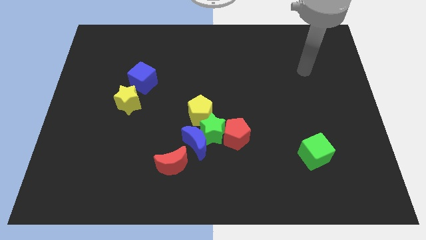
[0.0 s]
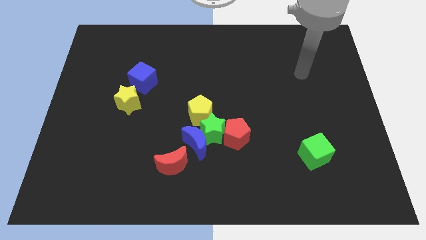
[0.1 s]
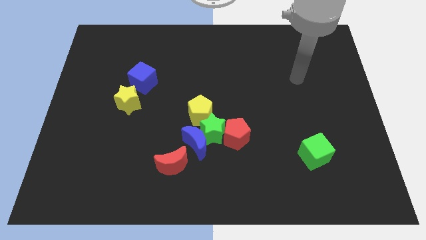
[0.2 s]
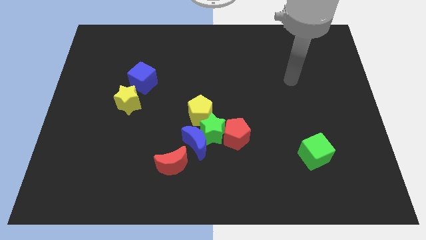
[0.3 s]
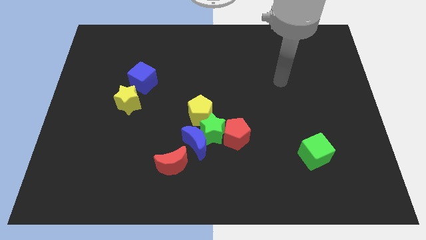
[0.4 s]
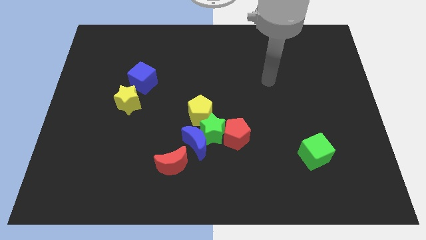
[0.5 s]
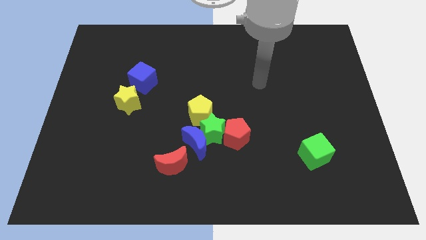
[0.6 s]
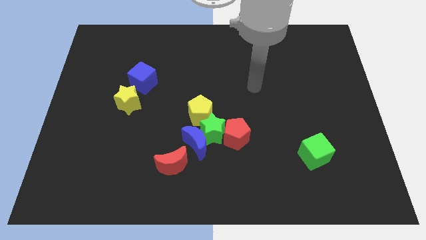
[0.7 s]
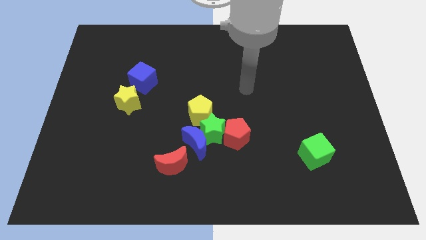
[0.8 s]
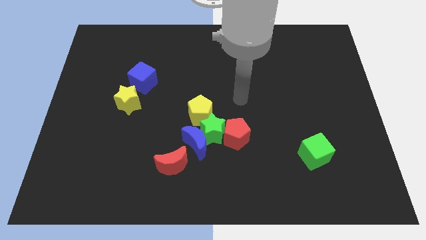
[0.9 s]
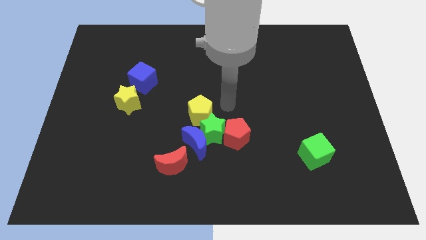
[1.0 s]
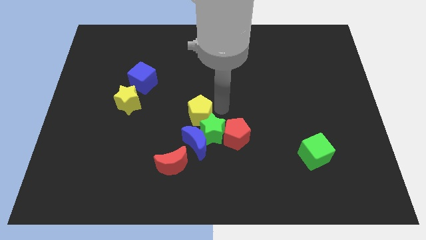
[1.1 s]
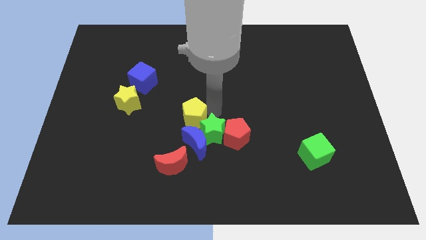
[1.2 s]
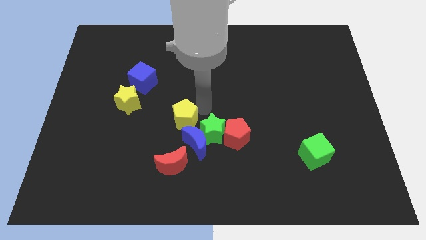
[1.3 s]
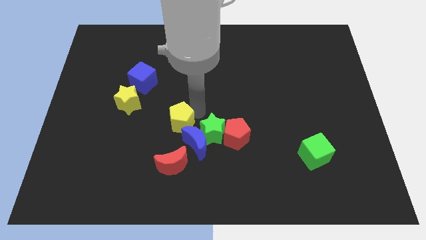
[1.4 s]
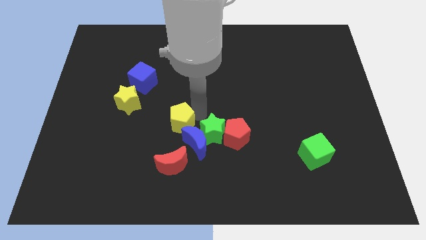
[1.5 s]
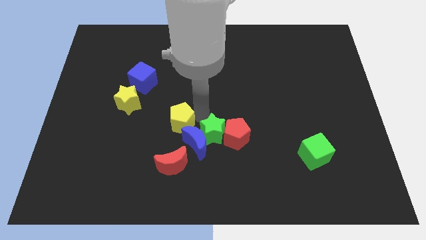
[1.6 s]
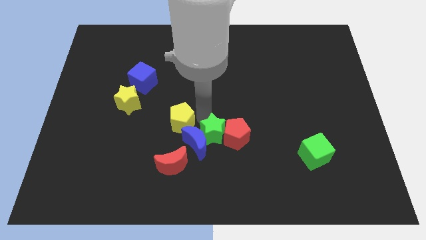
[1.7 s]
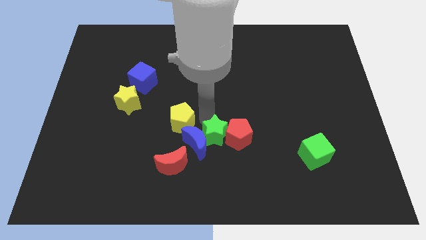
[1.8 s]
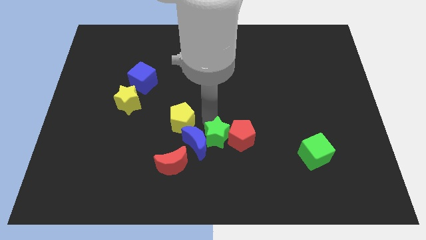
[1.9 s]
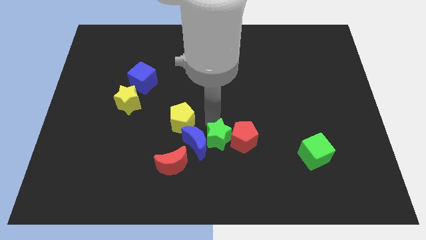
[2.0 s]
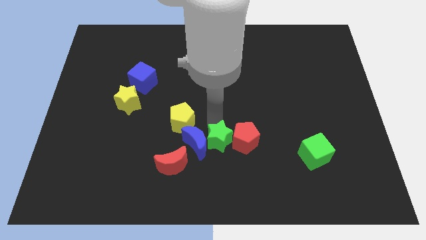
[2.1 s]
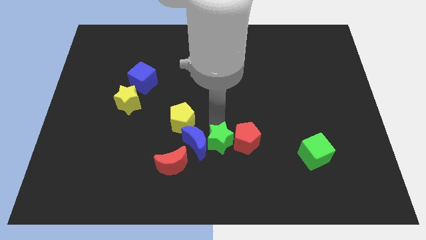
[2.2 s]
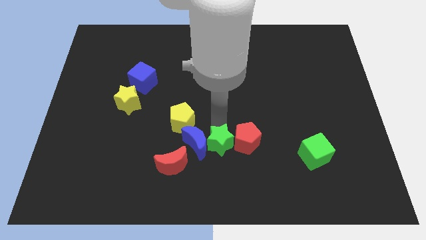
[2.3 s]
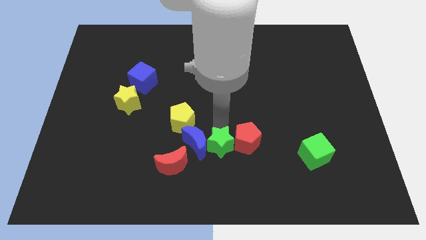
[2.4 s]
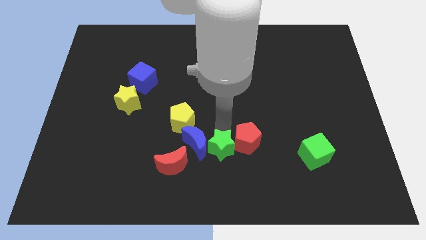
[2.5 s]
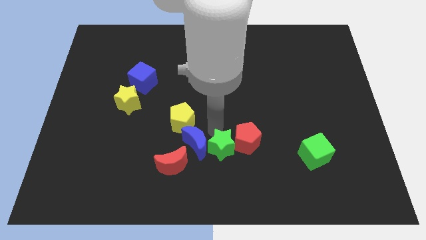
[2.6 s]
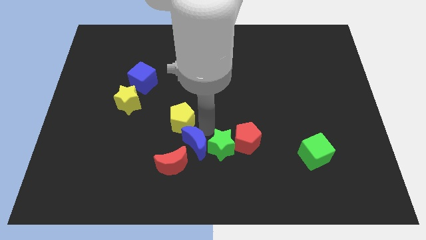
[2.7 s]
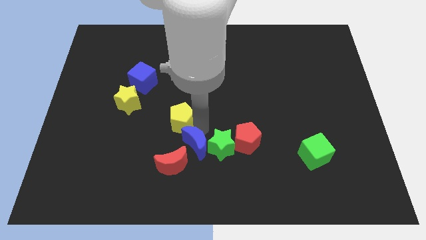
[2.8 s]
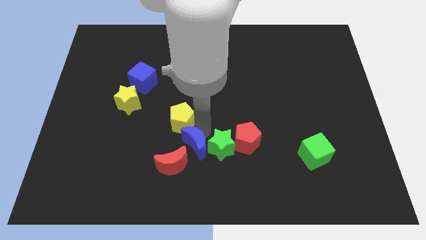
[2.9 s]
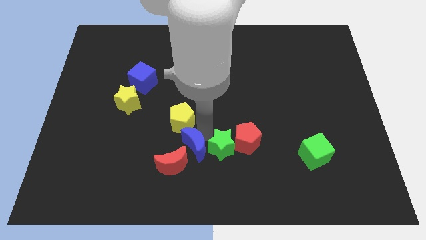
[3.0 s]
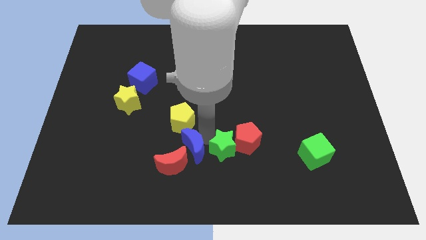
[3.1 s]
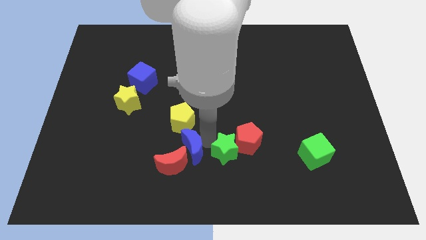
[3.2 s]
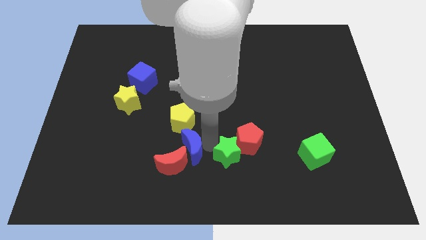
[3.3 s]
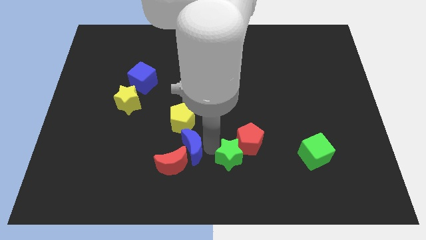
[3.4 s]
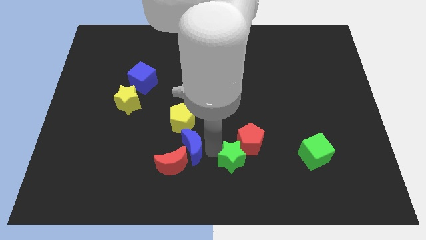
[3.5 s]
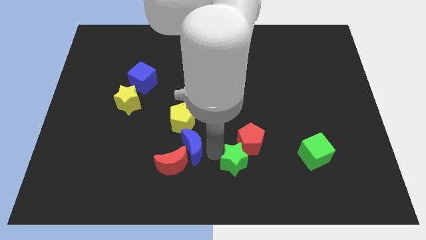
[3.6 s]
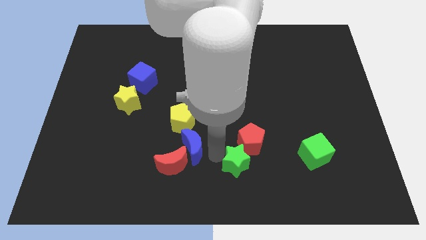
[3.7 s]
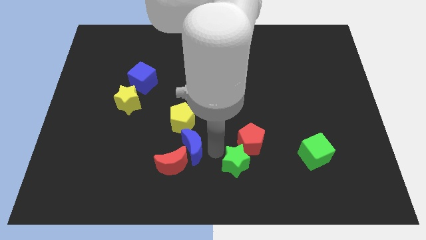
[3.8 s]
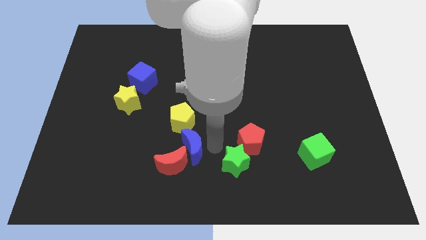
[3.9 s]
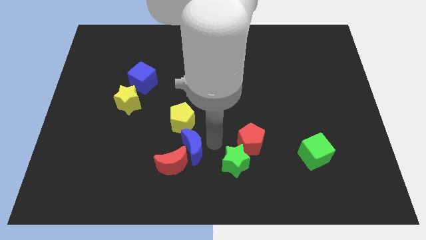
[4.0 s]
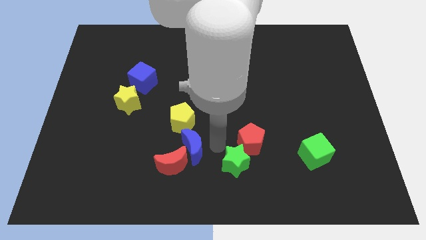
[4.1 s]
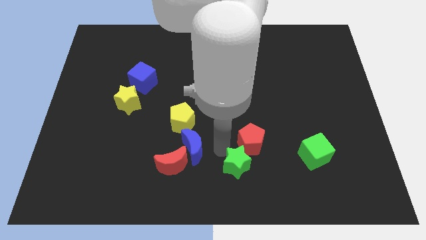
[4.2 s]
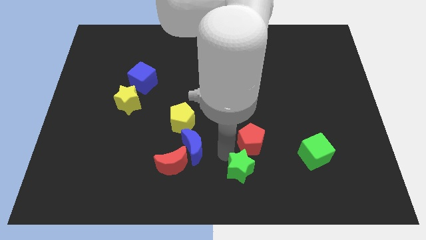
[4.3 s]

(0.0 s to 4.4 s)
pull the green star apart from the blue moon, red pentagon, and yellow pentagon

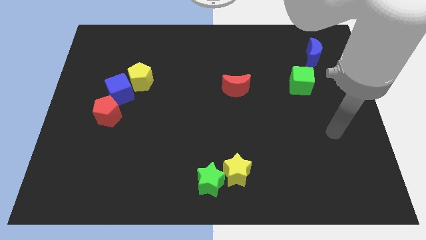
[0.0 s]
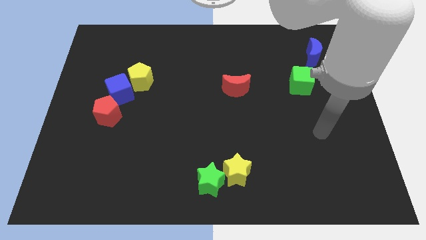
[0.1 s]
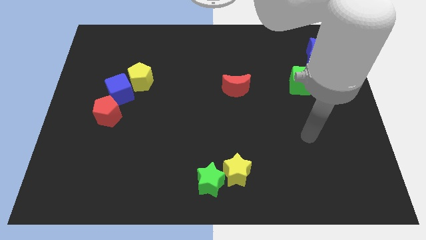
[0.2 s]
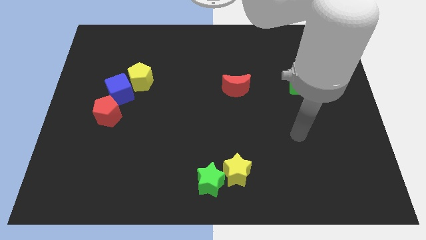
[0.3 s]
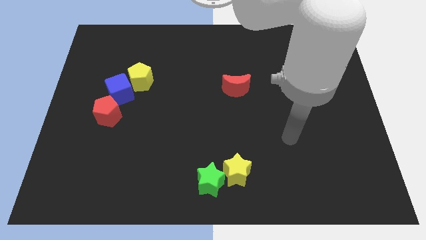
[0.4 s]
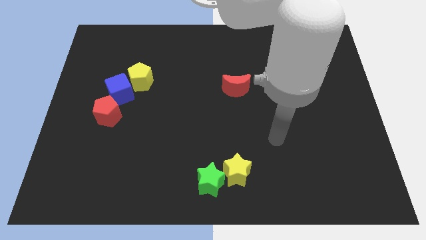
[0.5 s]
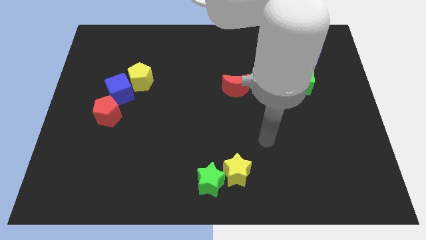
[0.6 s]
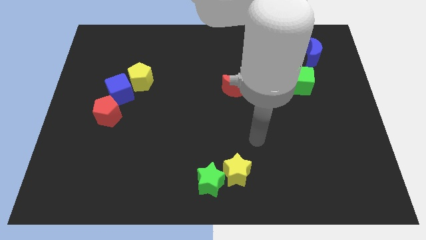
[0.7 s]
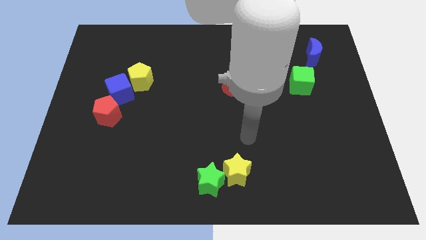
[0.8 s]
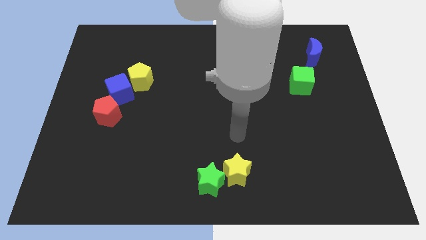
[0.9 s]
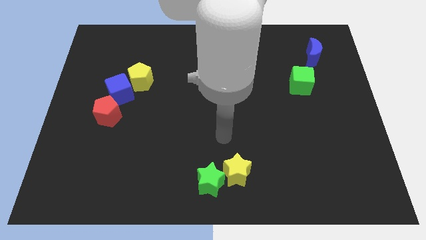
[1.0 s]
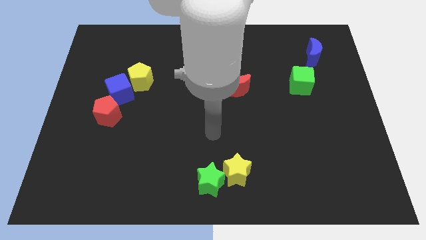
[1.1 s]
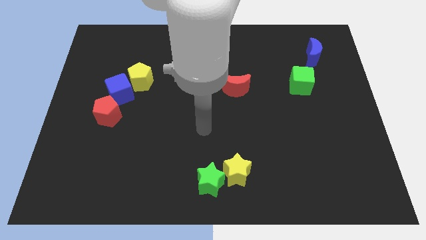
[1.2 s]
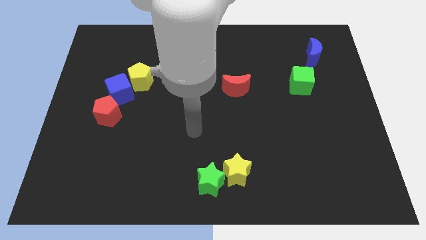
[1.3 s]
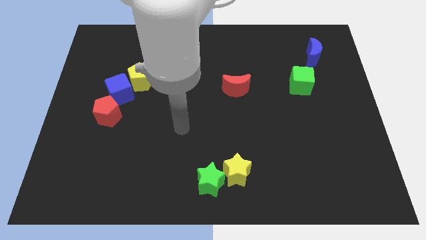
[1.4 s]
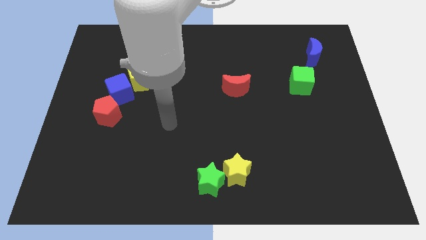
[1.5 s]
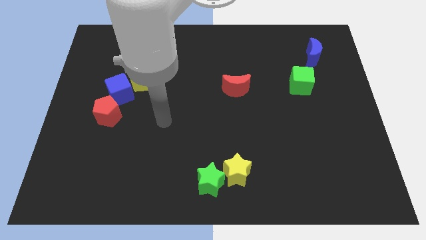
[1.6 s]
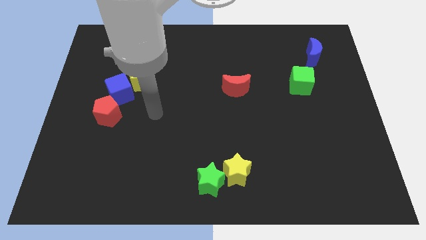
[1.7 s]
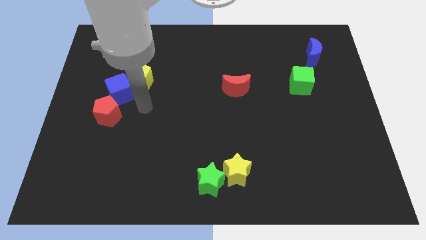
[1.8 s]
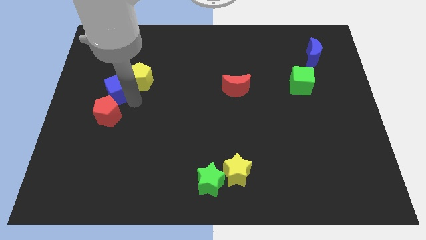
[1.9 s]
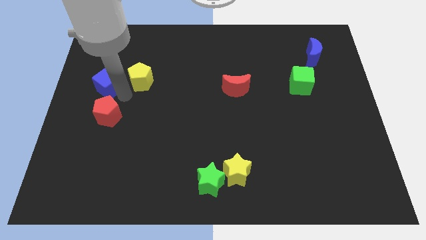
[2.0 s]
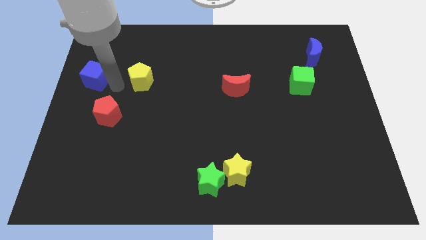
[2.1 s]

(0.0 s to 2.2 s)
pull the yellow pentagon apart from the blue cube

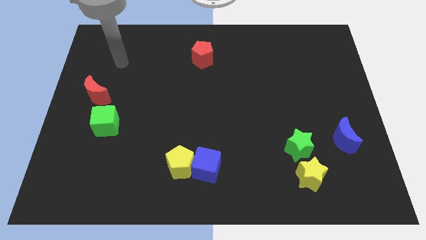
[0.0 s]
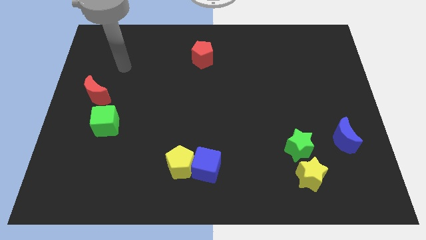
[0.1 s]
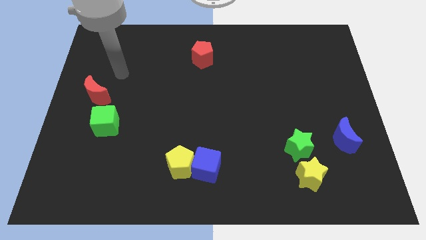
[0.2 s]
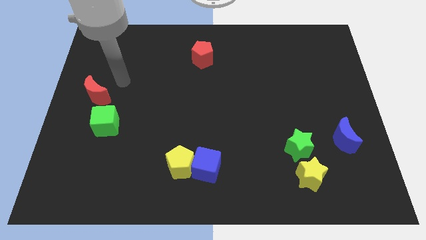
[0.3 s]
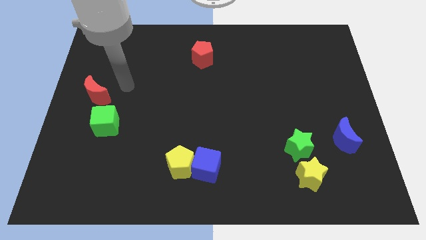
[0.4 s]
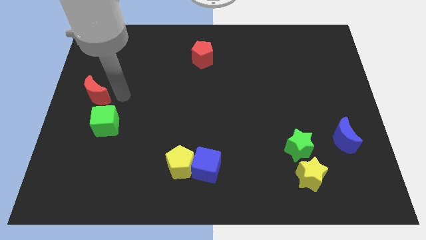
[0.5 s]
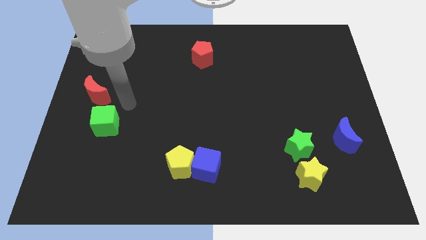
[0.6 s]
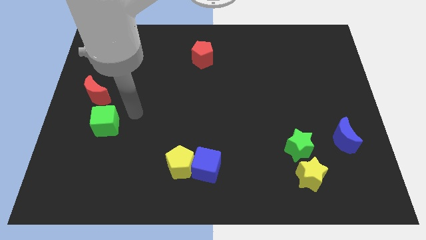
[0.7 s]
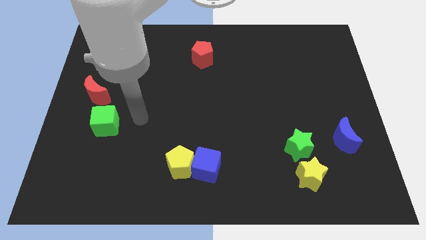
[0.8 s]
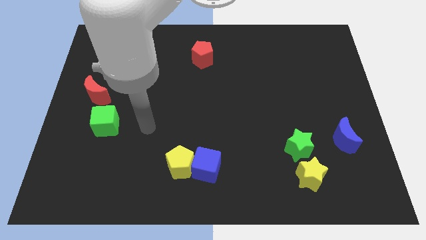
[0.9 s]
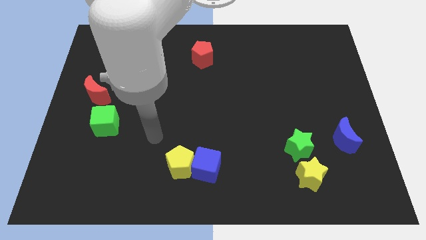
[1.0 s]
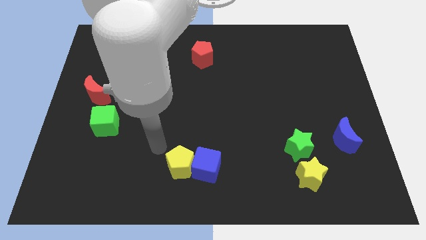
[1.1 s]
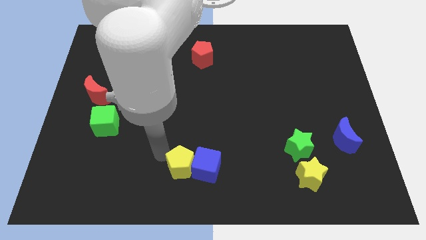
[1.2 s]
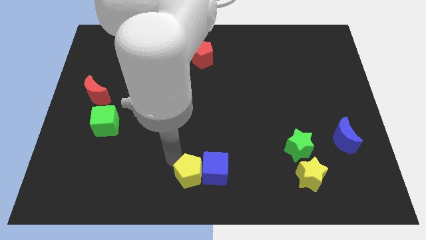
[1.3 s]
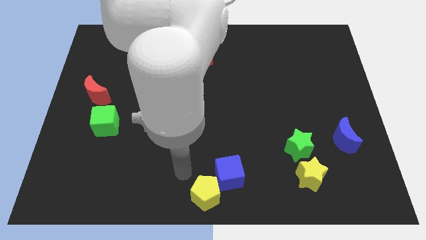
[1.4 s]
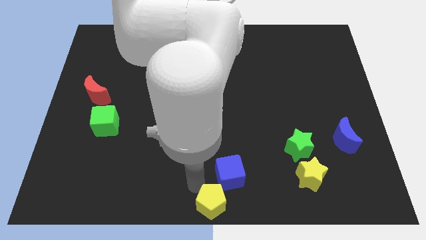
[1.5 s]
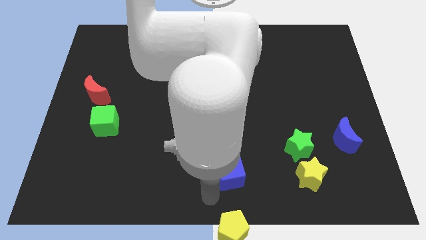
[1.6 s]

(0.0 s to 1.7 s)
move the blue cube away from the yellow pentagon

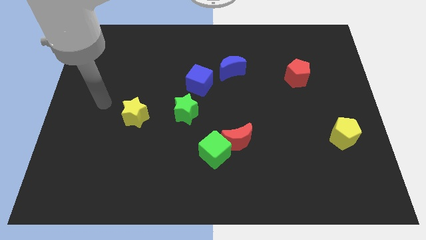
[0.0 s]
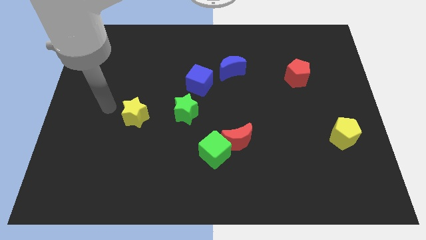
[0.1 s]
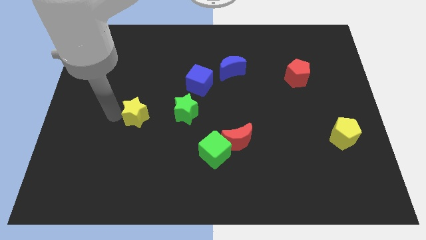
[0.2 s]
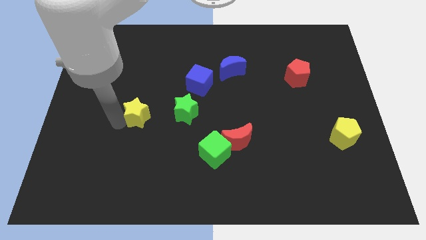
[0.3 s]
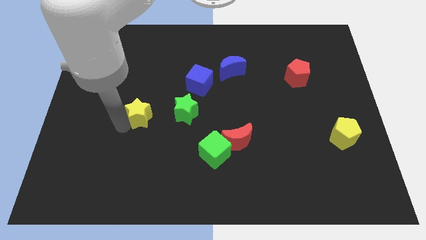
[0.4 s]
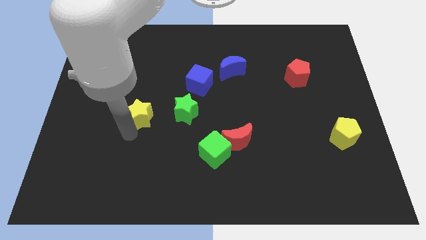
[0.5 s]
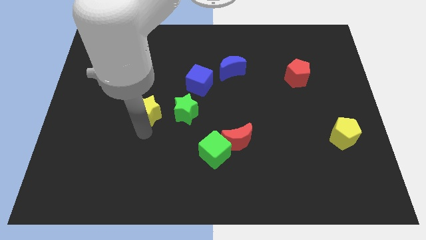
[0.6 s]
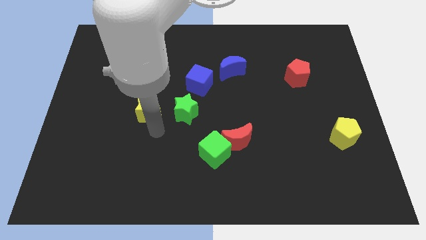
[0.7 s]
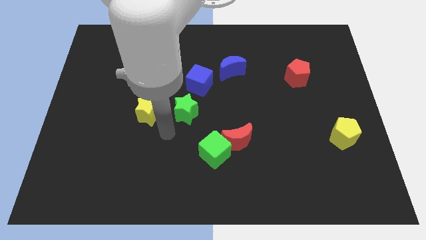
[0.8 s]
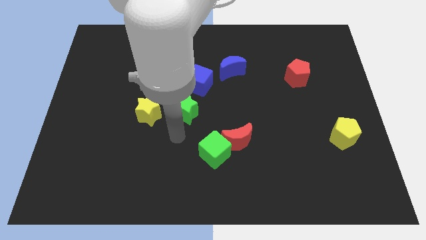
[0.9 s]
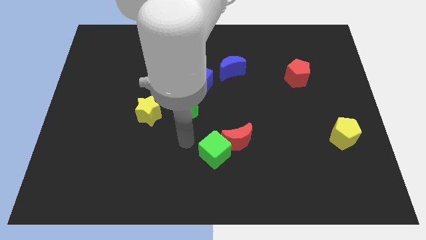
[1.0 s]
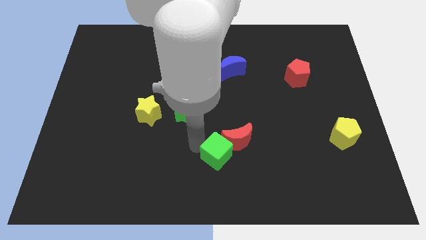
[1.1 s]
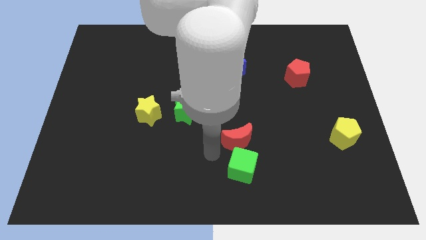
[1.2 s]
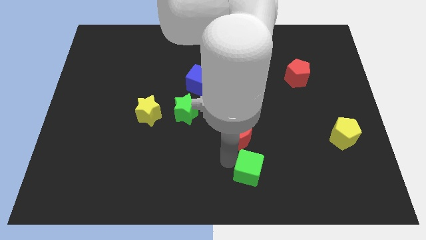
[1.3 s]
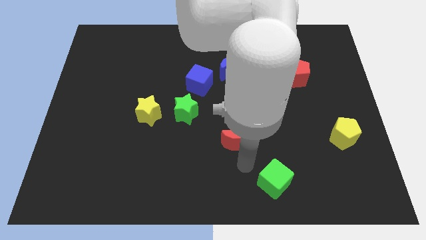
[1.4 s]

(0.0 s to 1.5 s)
separate the red moon from the green cube
